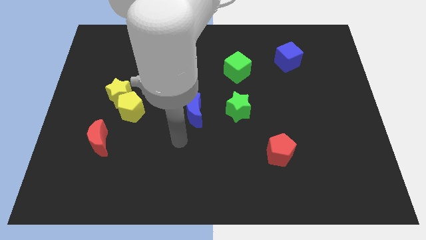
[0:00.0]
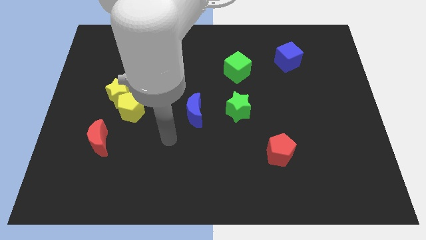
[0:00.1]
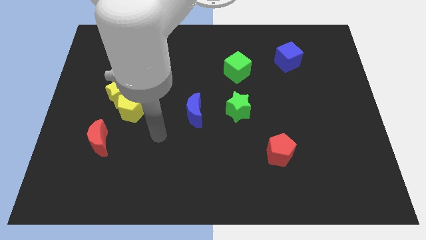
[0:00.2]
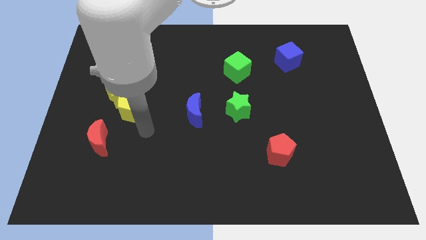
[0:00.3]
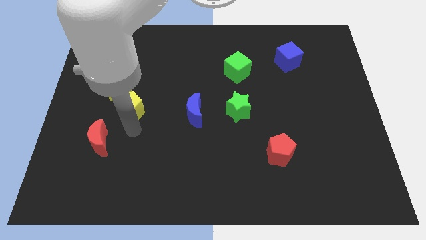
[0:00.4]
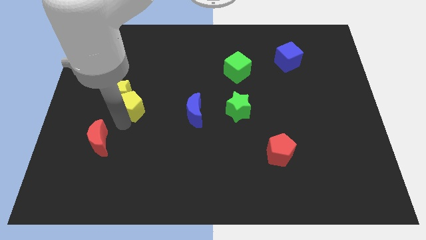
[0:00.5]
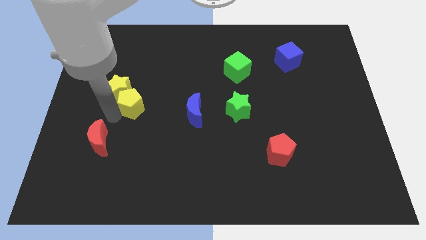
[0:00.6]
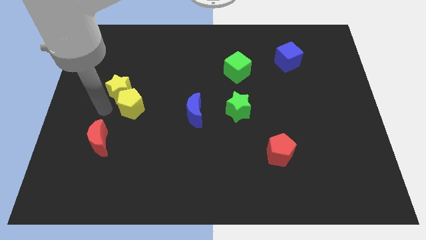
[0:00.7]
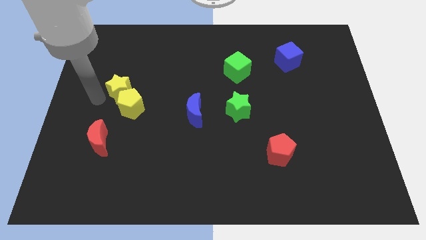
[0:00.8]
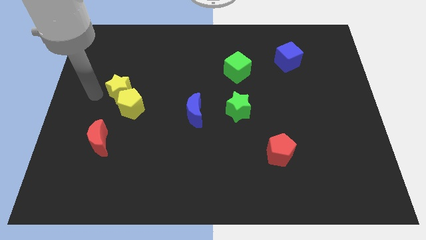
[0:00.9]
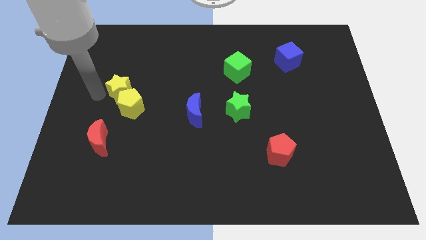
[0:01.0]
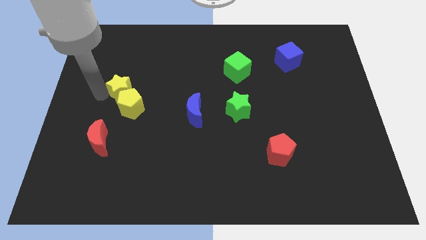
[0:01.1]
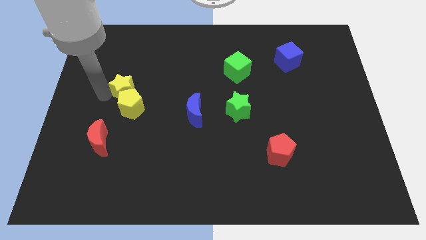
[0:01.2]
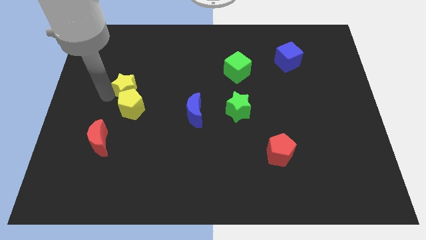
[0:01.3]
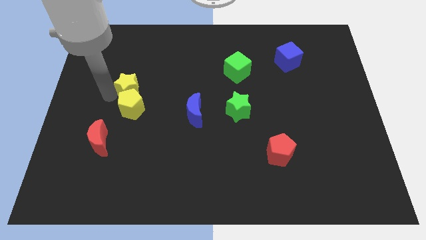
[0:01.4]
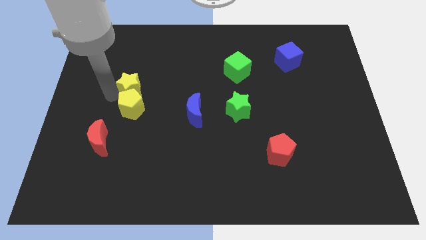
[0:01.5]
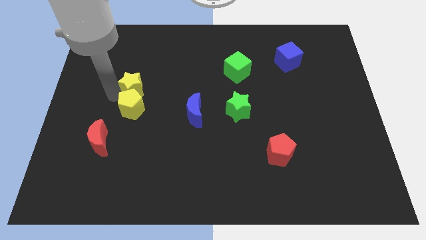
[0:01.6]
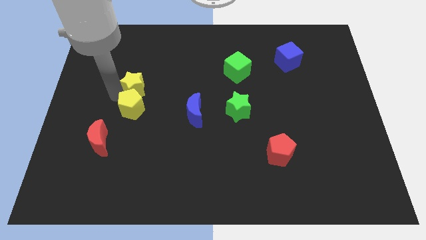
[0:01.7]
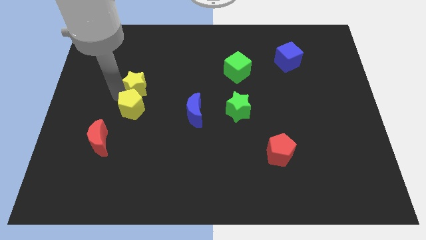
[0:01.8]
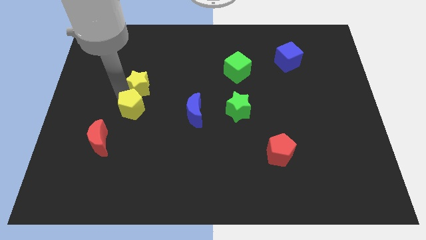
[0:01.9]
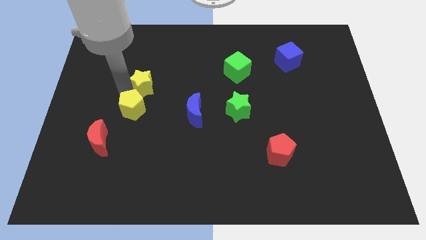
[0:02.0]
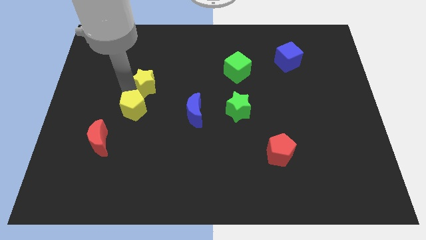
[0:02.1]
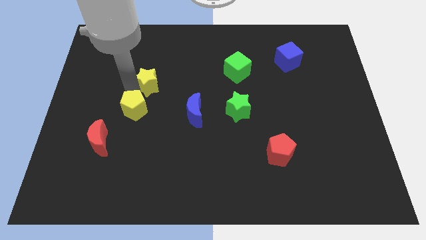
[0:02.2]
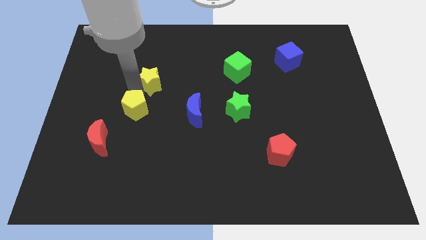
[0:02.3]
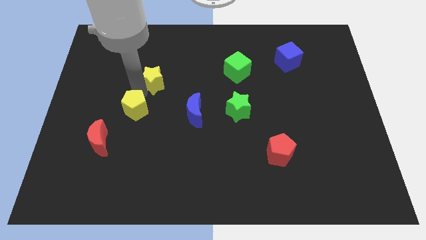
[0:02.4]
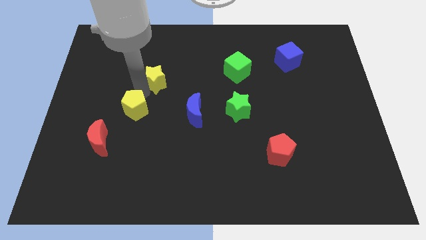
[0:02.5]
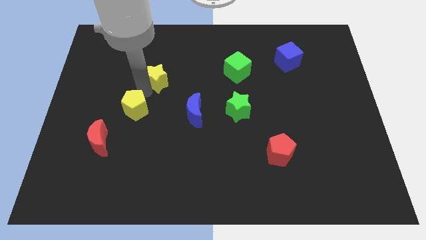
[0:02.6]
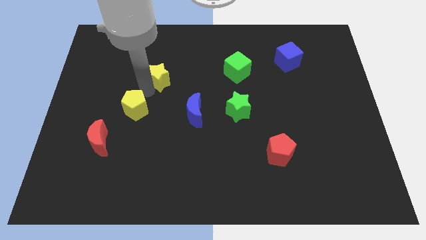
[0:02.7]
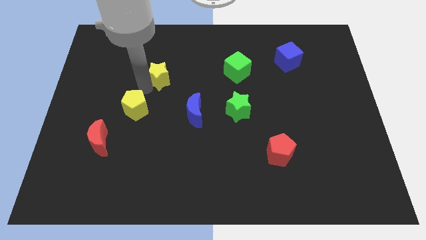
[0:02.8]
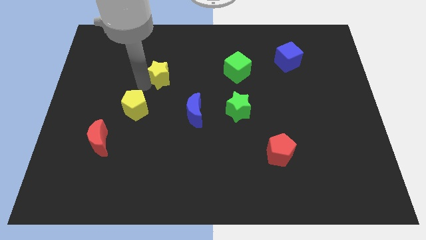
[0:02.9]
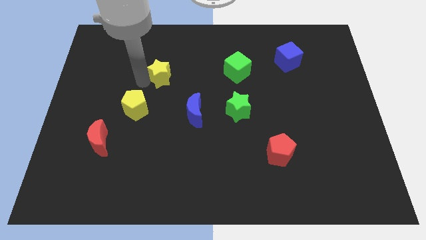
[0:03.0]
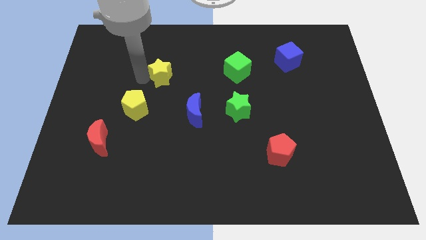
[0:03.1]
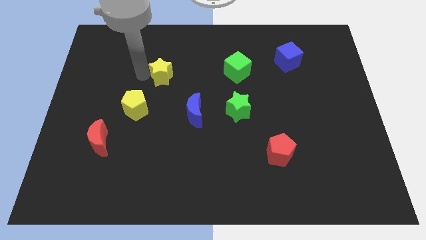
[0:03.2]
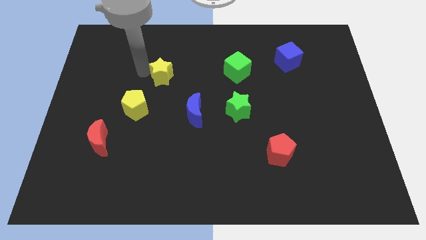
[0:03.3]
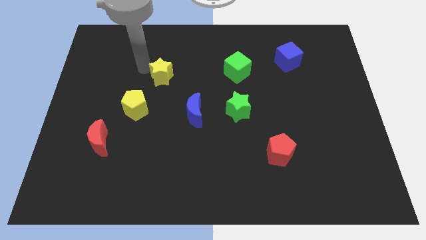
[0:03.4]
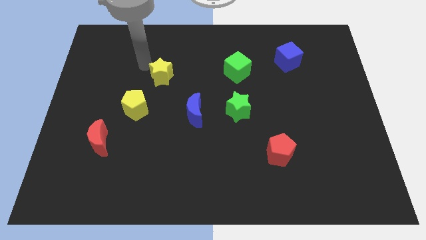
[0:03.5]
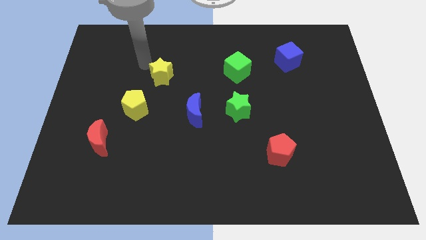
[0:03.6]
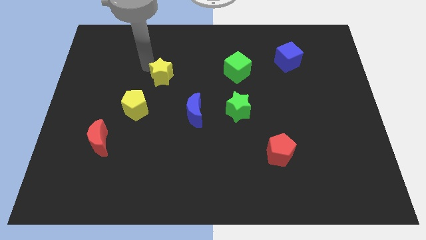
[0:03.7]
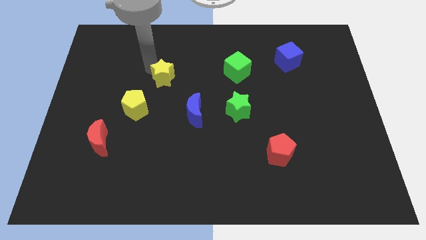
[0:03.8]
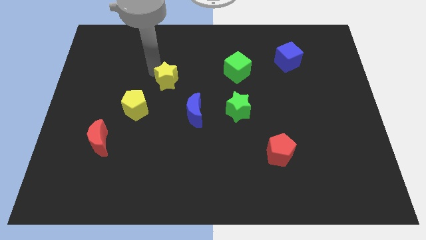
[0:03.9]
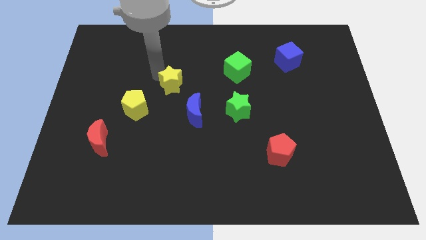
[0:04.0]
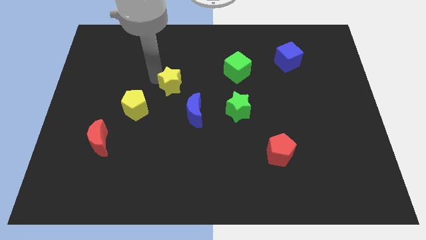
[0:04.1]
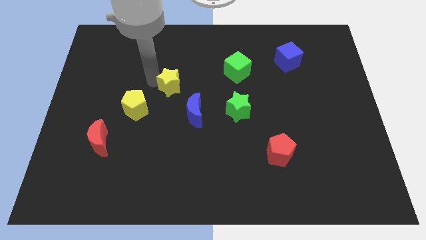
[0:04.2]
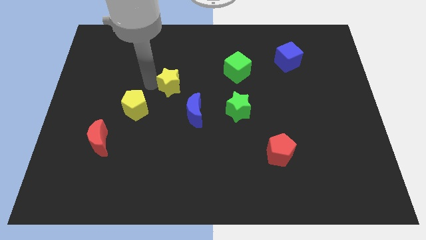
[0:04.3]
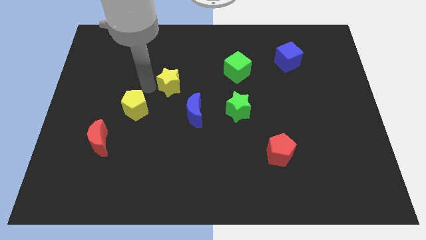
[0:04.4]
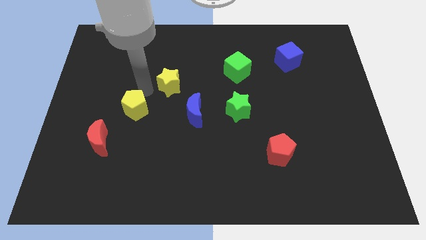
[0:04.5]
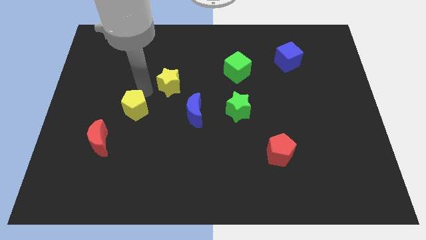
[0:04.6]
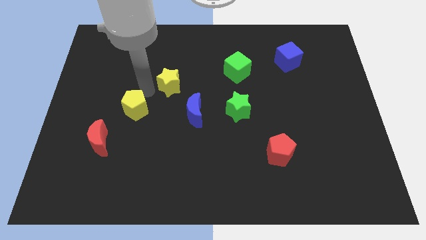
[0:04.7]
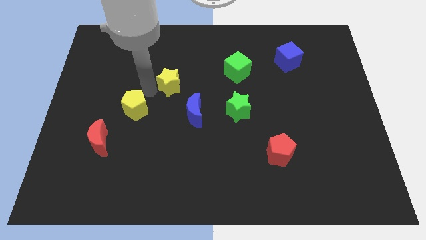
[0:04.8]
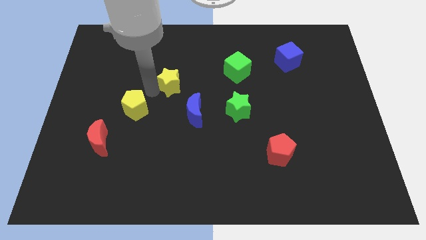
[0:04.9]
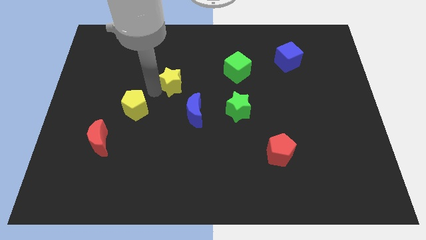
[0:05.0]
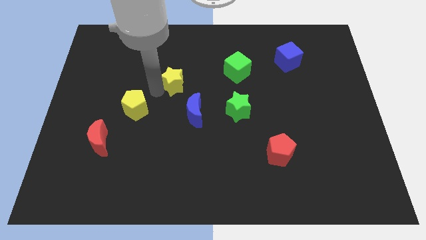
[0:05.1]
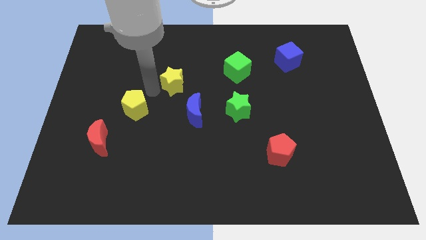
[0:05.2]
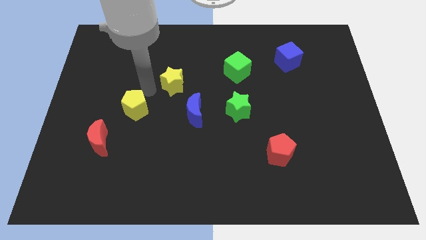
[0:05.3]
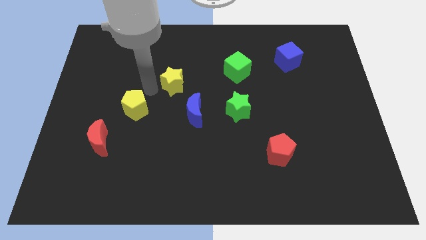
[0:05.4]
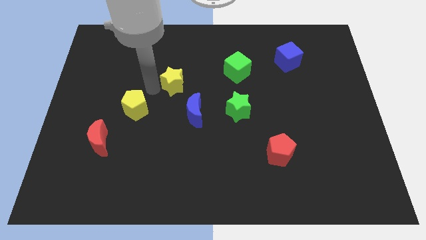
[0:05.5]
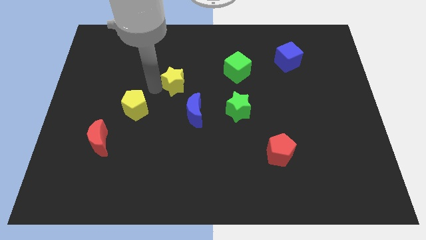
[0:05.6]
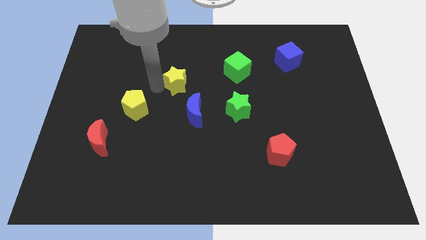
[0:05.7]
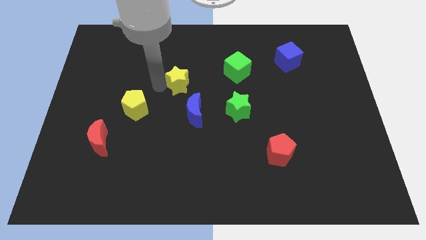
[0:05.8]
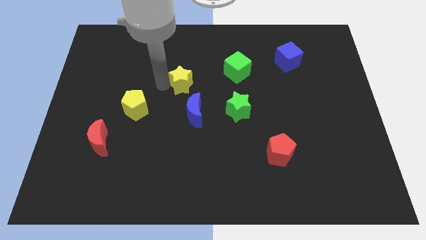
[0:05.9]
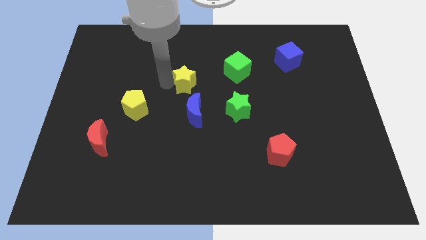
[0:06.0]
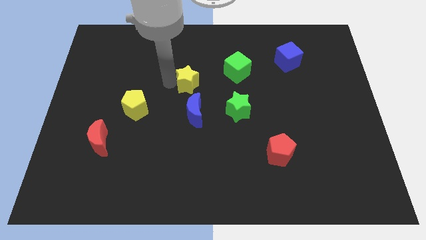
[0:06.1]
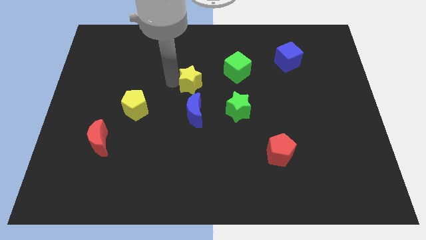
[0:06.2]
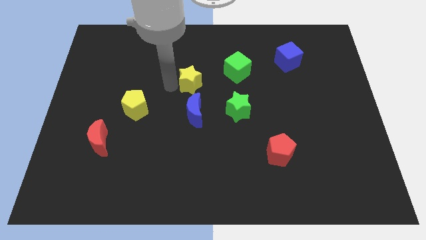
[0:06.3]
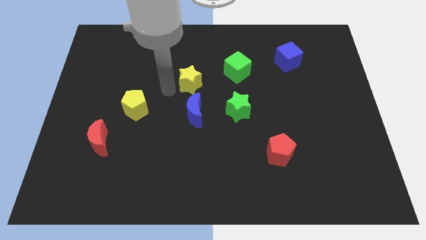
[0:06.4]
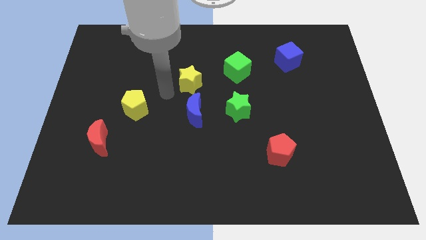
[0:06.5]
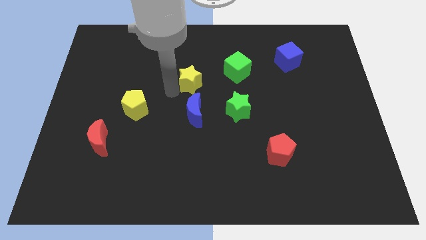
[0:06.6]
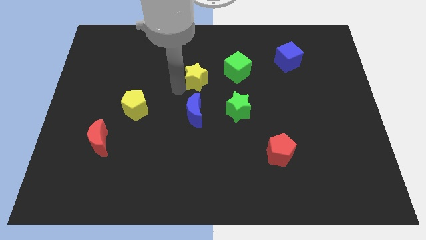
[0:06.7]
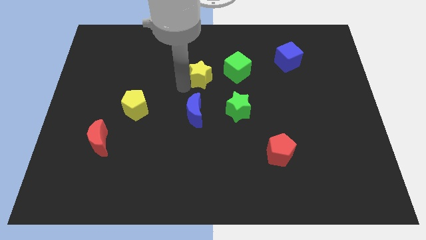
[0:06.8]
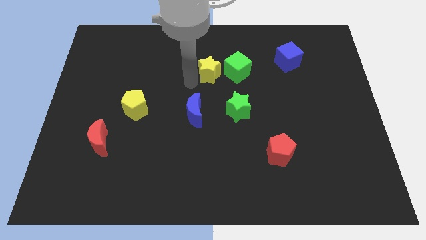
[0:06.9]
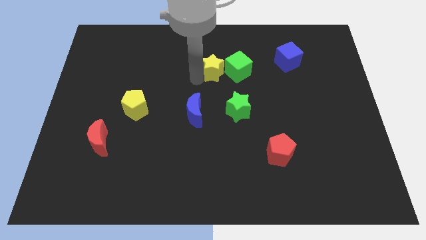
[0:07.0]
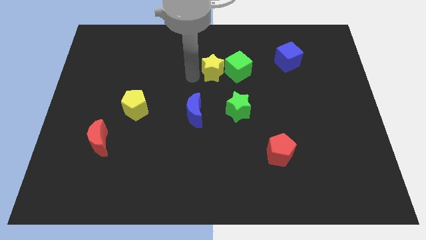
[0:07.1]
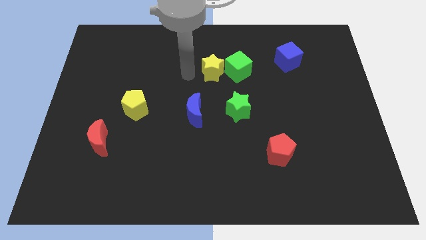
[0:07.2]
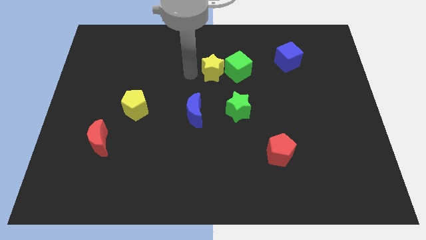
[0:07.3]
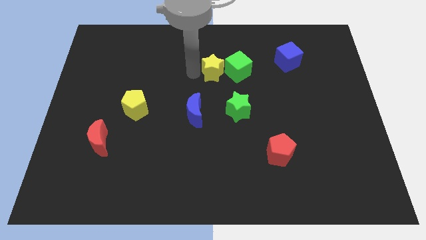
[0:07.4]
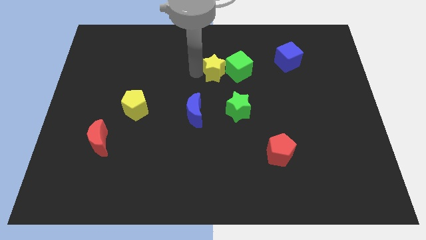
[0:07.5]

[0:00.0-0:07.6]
move the yellow star next to the green cube
